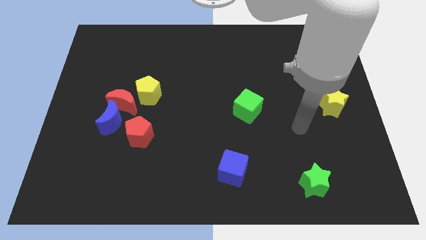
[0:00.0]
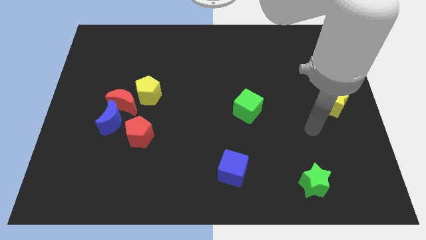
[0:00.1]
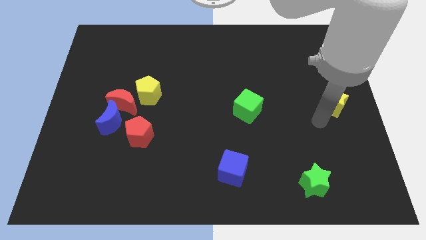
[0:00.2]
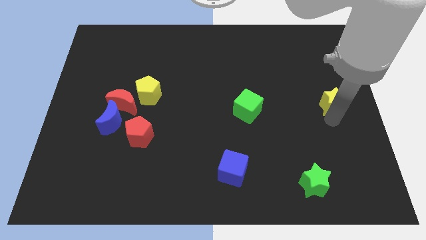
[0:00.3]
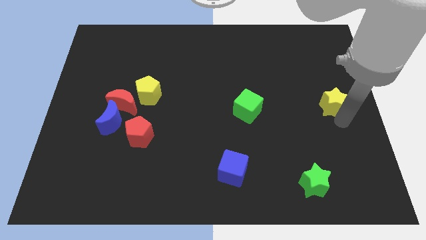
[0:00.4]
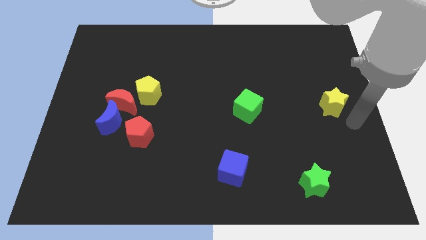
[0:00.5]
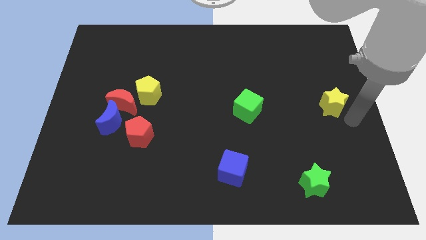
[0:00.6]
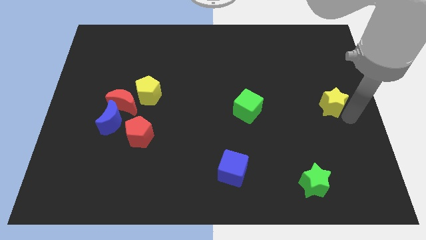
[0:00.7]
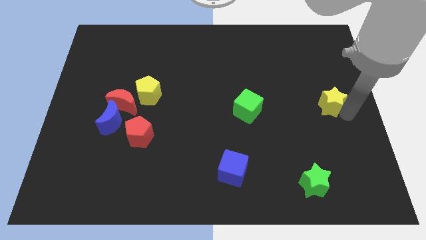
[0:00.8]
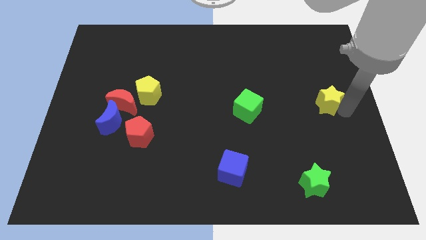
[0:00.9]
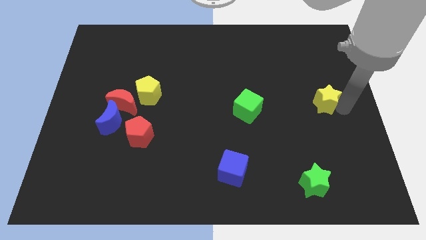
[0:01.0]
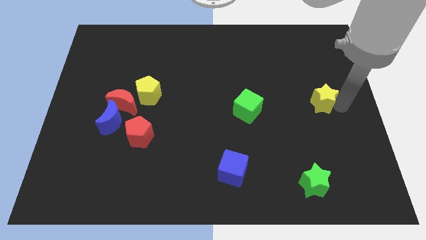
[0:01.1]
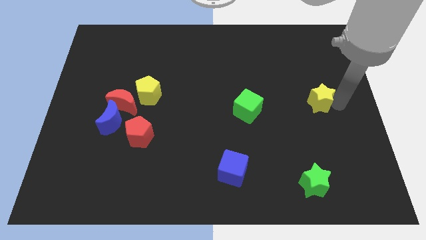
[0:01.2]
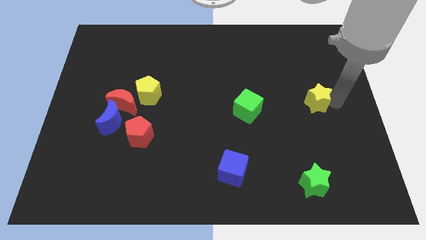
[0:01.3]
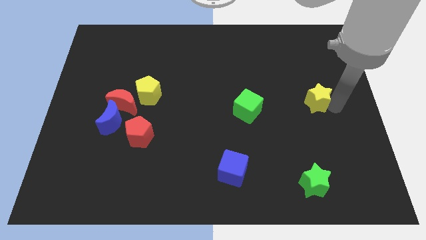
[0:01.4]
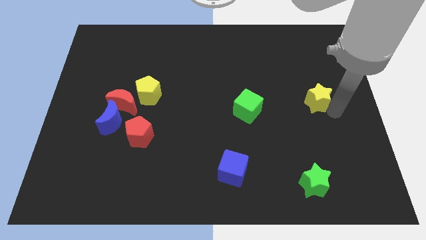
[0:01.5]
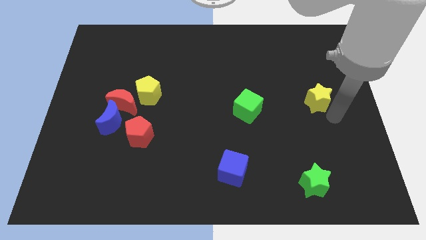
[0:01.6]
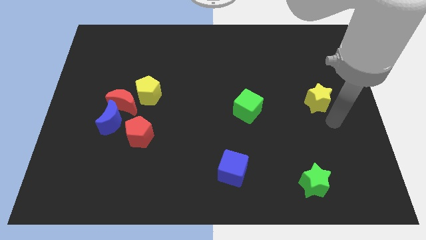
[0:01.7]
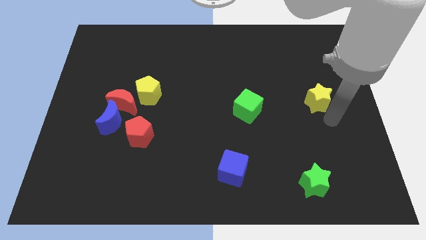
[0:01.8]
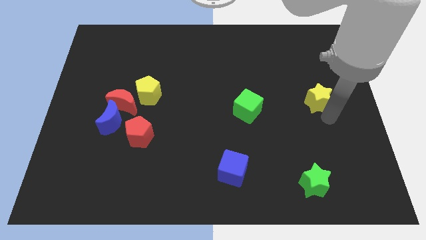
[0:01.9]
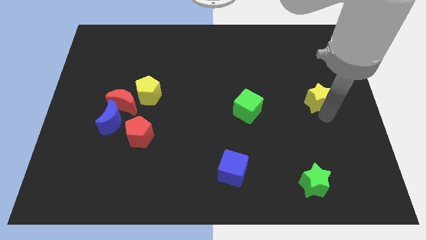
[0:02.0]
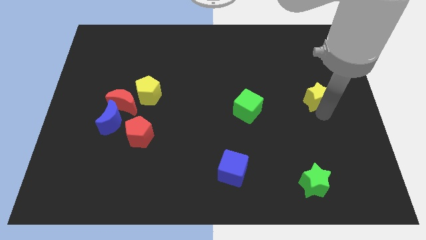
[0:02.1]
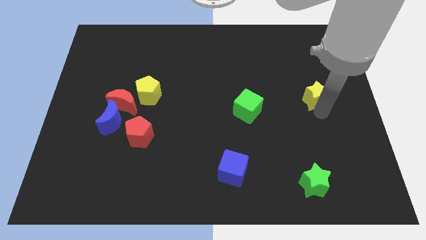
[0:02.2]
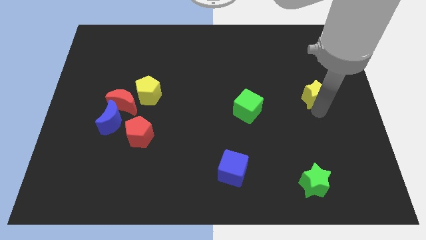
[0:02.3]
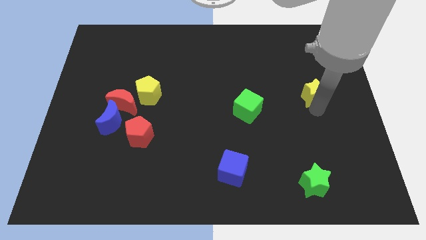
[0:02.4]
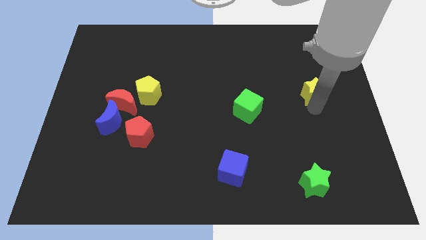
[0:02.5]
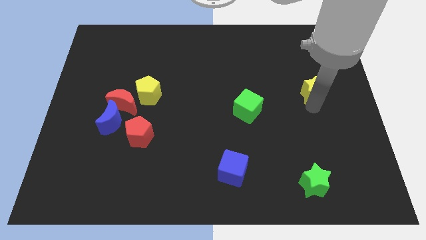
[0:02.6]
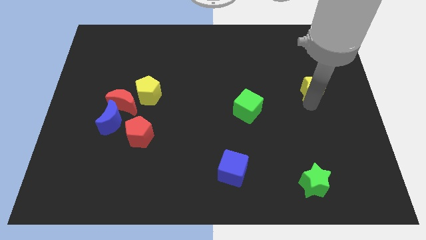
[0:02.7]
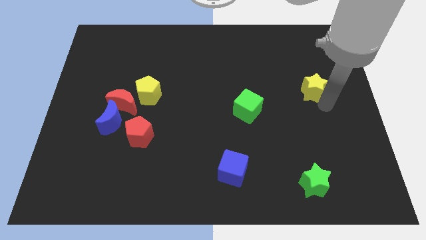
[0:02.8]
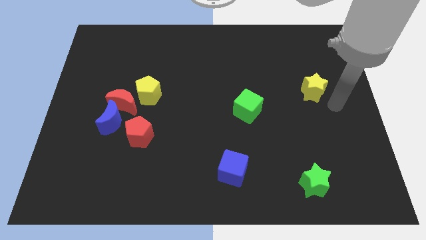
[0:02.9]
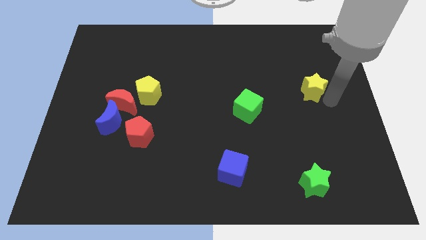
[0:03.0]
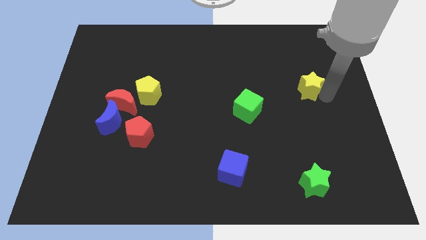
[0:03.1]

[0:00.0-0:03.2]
move the yellow star upwards and then to the left somewhat

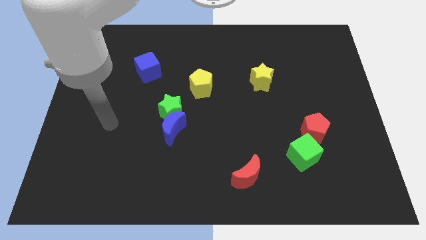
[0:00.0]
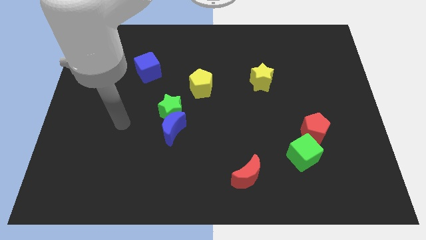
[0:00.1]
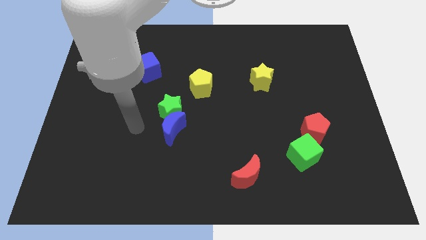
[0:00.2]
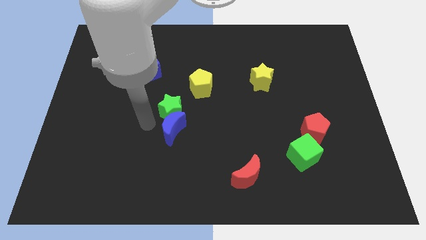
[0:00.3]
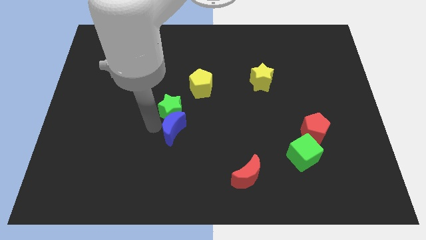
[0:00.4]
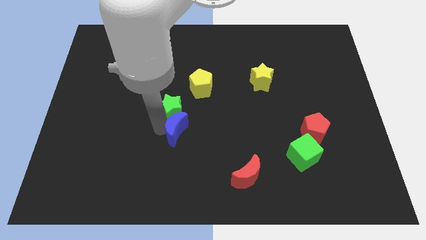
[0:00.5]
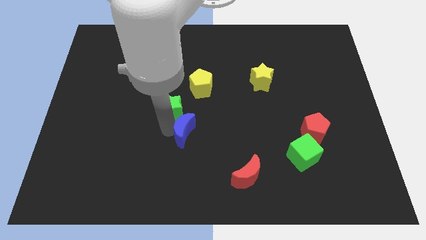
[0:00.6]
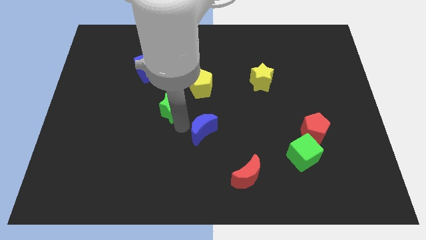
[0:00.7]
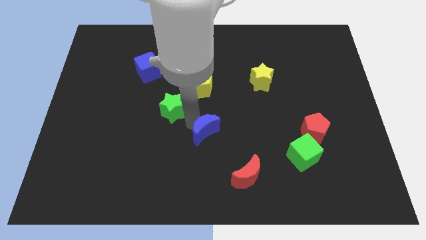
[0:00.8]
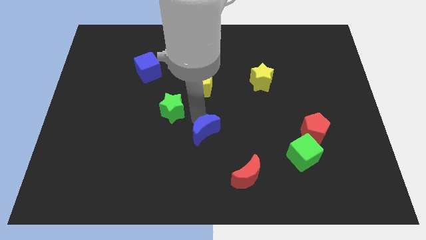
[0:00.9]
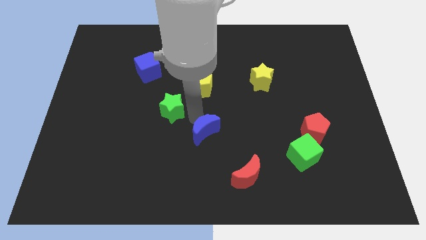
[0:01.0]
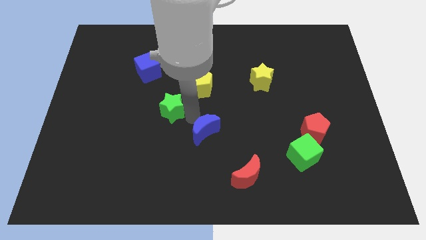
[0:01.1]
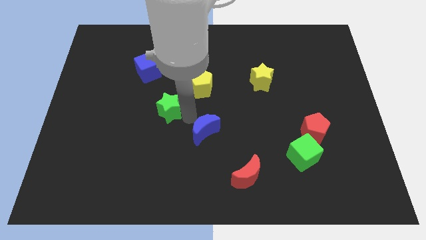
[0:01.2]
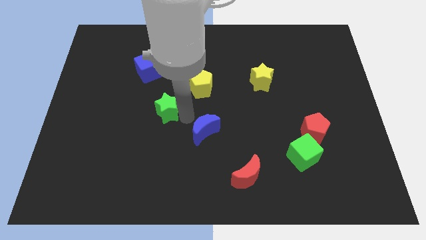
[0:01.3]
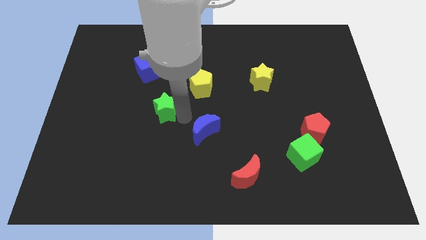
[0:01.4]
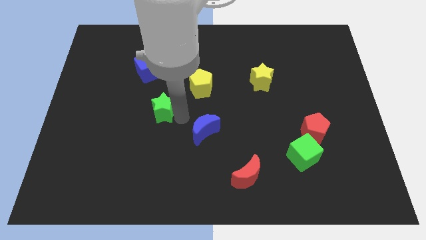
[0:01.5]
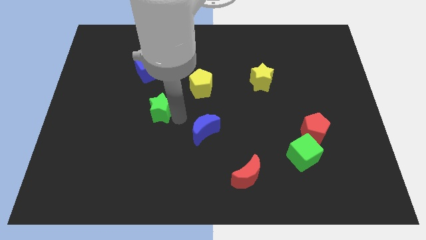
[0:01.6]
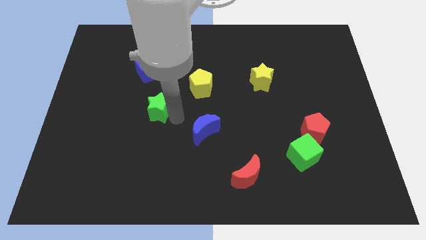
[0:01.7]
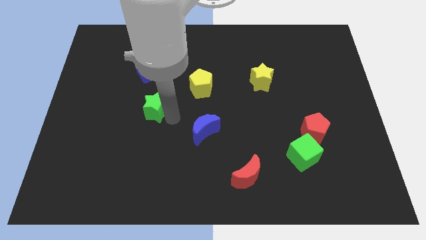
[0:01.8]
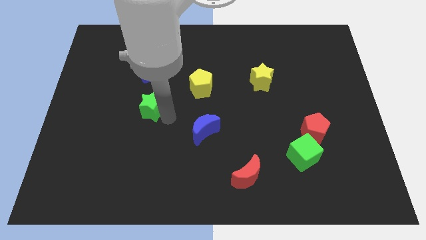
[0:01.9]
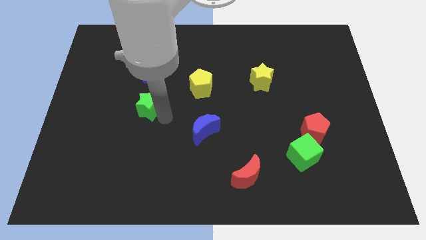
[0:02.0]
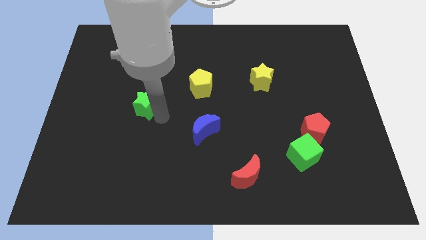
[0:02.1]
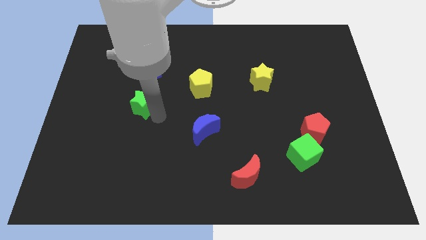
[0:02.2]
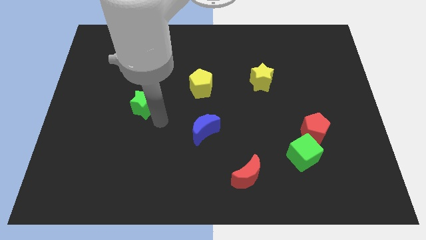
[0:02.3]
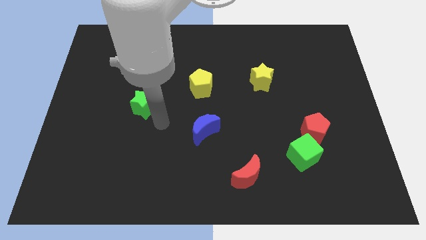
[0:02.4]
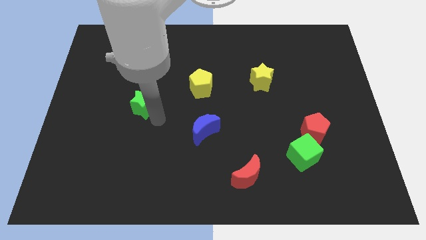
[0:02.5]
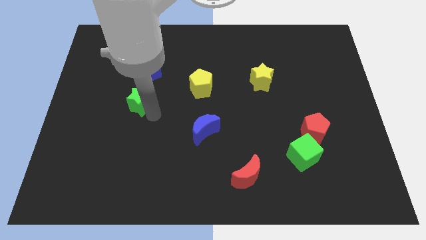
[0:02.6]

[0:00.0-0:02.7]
push the green star a little diagonally up and left

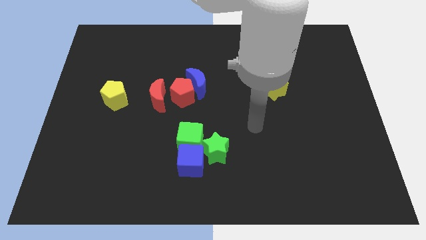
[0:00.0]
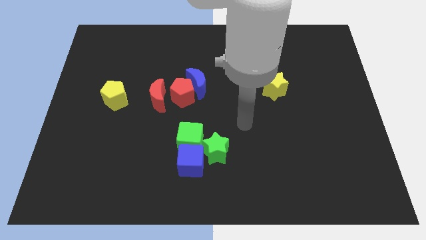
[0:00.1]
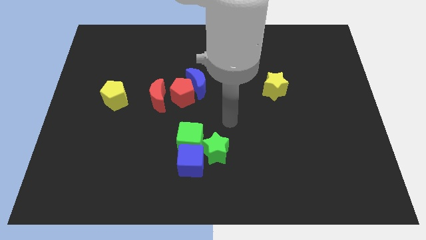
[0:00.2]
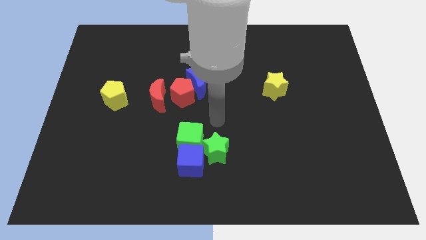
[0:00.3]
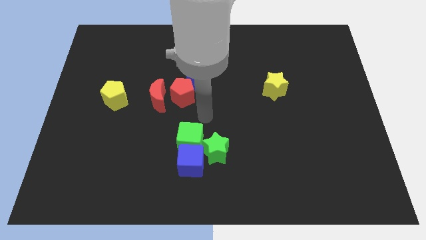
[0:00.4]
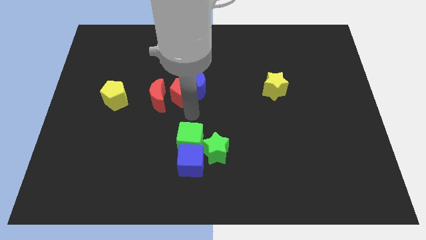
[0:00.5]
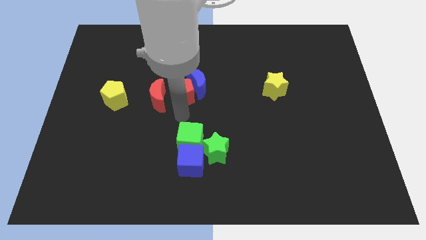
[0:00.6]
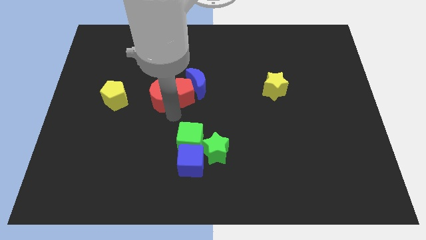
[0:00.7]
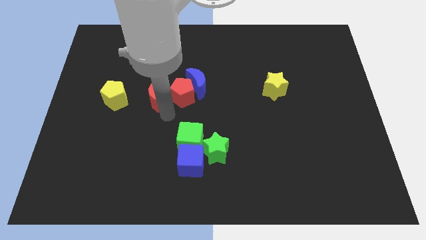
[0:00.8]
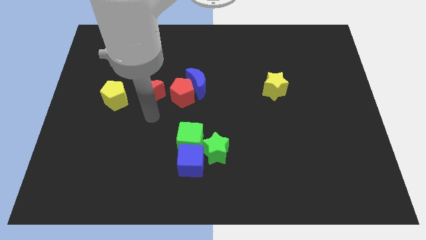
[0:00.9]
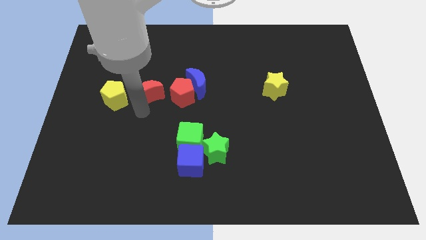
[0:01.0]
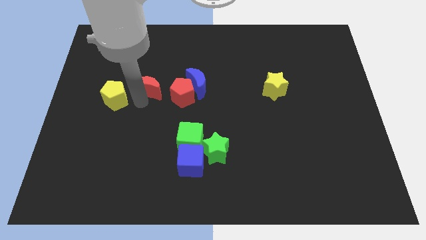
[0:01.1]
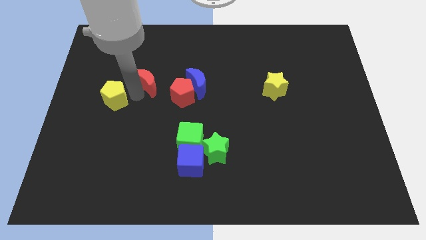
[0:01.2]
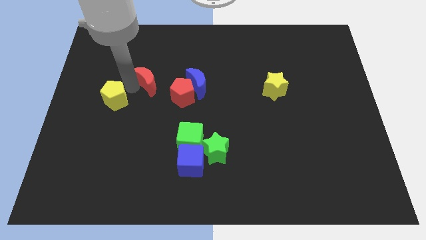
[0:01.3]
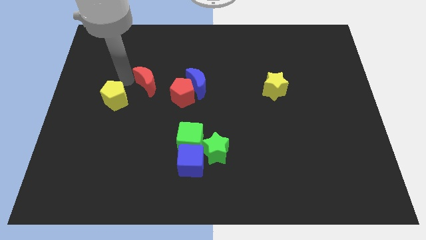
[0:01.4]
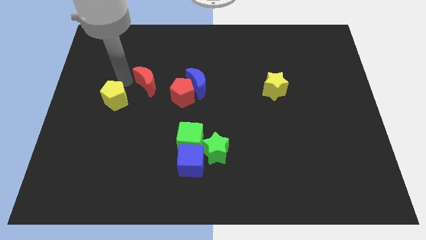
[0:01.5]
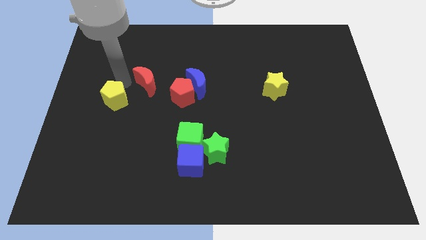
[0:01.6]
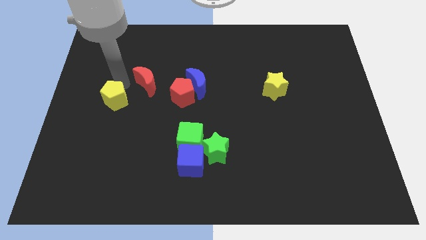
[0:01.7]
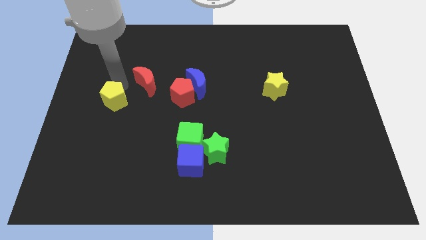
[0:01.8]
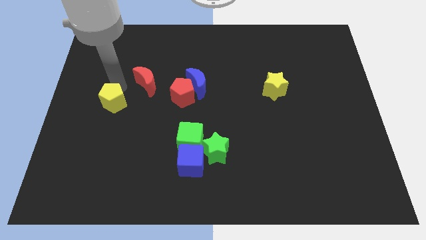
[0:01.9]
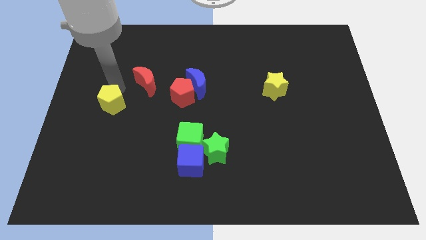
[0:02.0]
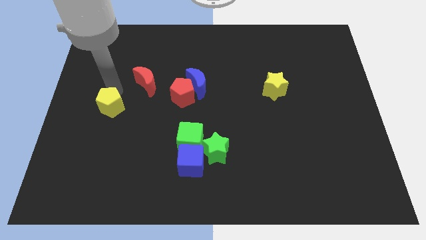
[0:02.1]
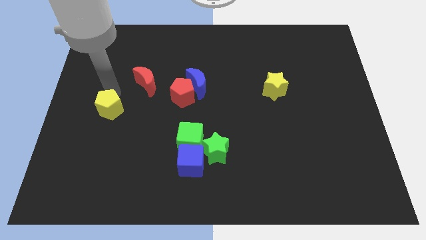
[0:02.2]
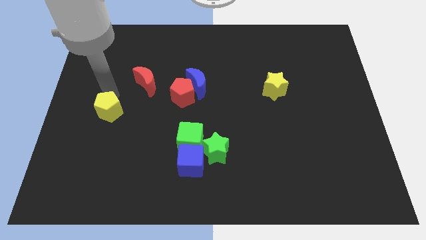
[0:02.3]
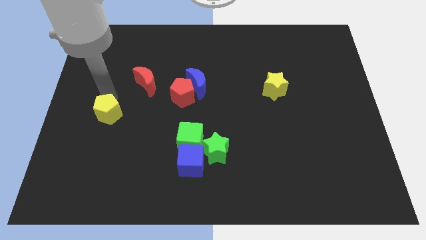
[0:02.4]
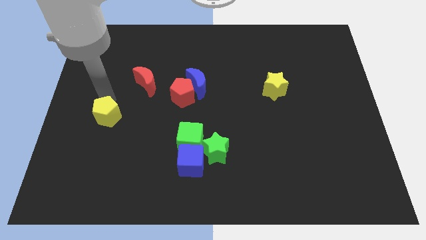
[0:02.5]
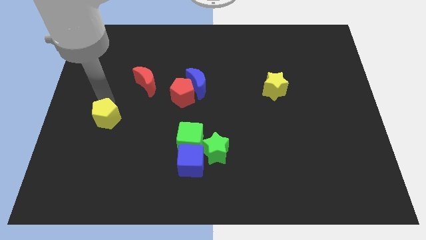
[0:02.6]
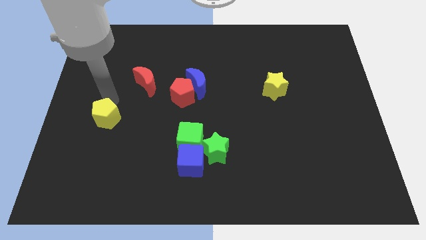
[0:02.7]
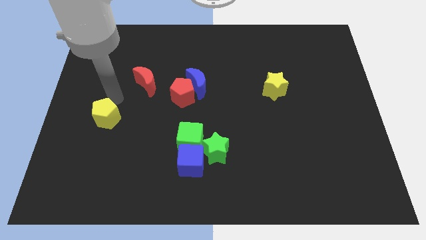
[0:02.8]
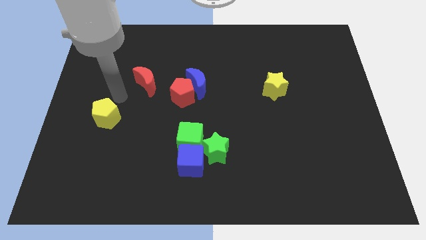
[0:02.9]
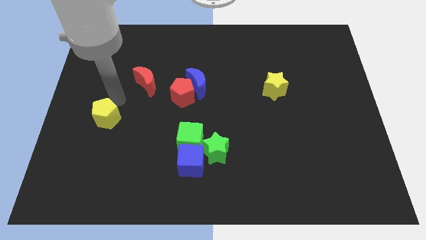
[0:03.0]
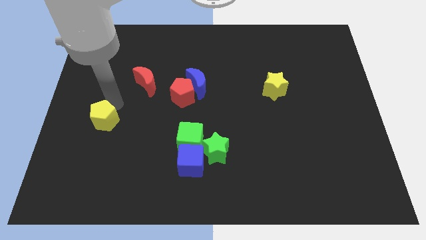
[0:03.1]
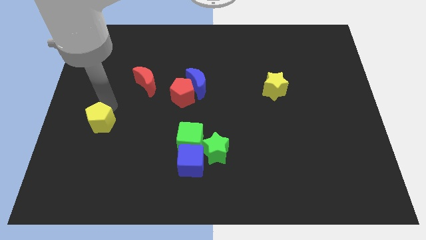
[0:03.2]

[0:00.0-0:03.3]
move the yellow pentagon downwards a bit
